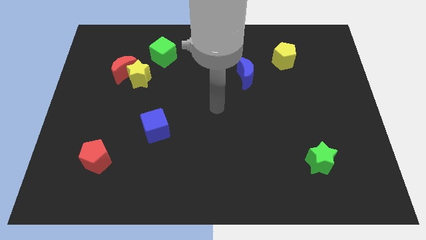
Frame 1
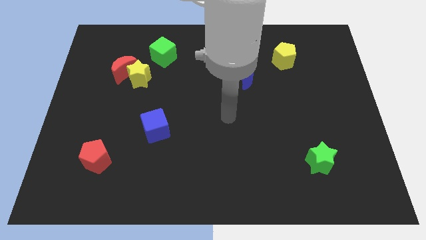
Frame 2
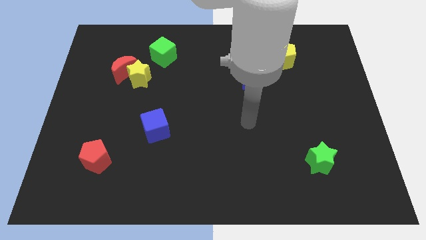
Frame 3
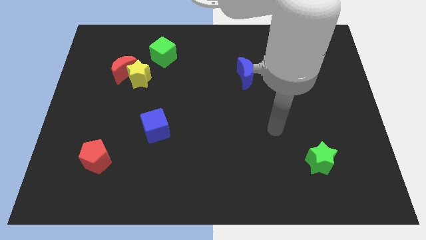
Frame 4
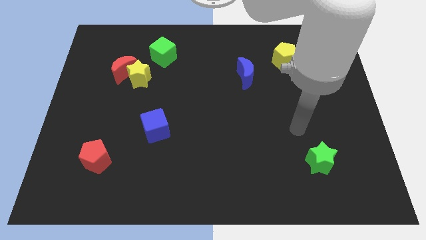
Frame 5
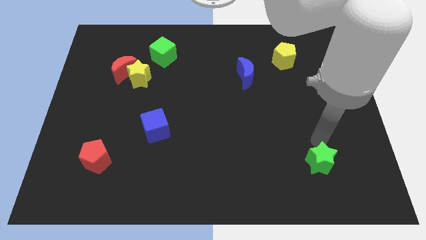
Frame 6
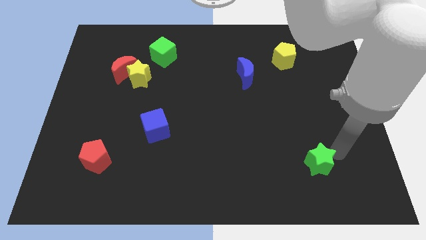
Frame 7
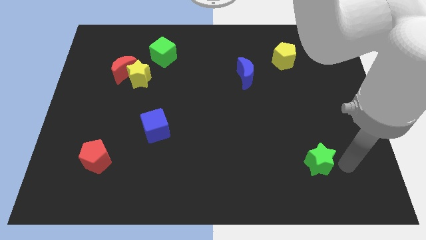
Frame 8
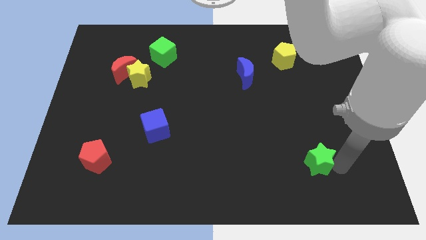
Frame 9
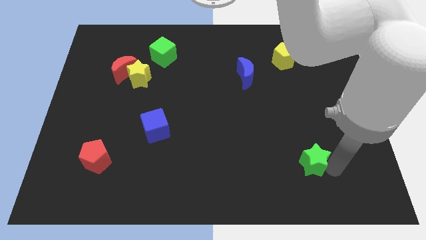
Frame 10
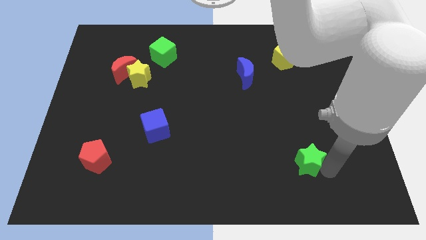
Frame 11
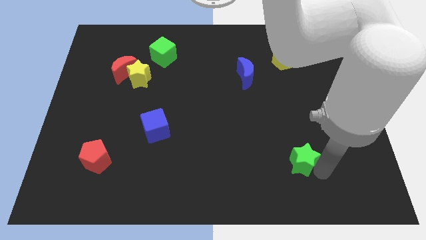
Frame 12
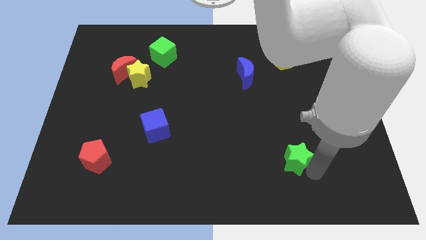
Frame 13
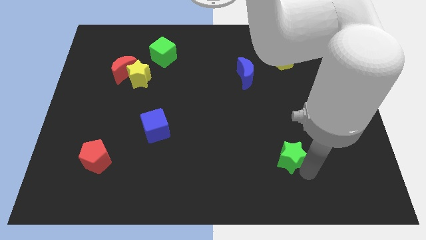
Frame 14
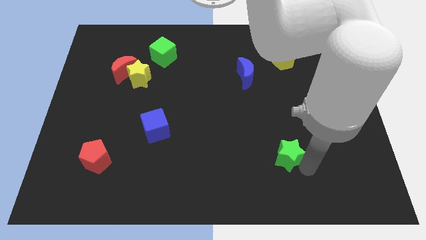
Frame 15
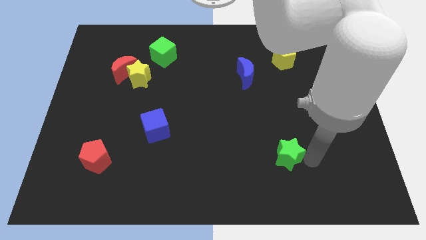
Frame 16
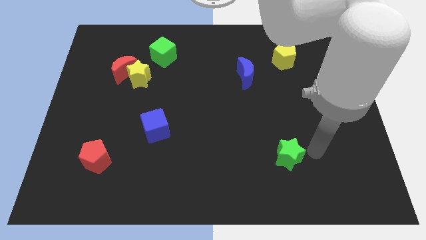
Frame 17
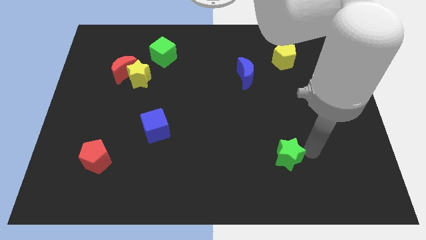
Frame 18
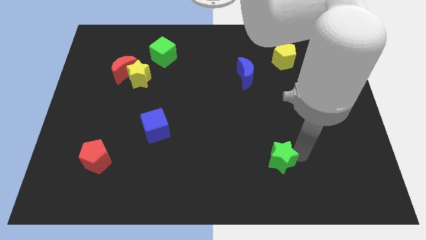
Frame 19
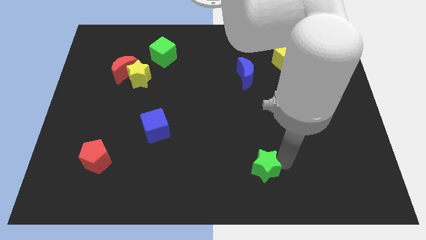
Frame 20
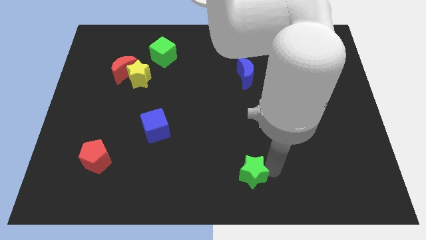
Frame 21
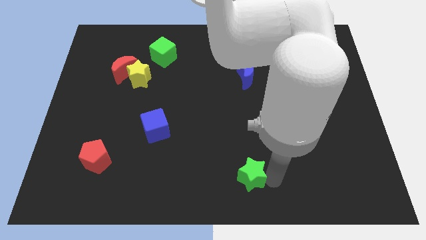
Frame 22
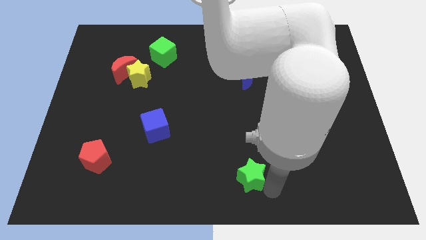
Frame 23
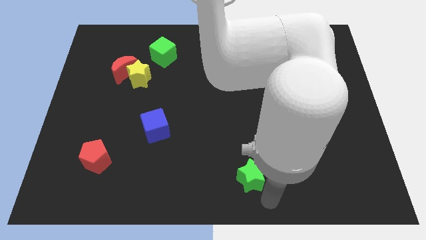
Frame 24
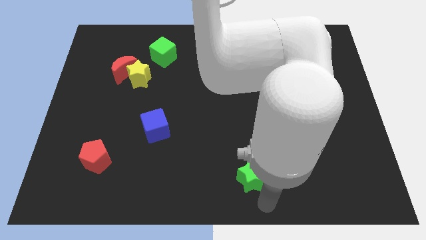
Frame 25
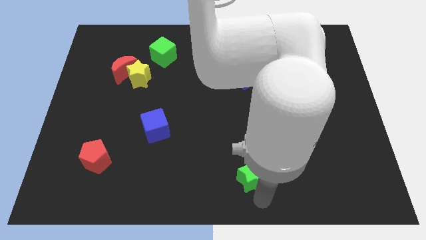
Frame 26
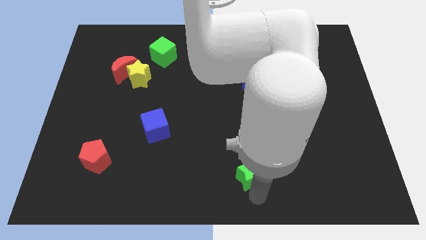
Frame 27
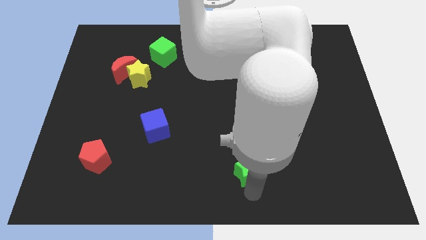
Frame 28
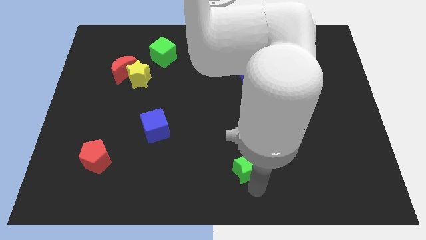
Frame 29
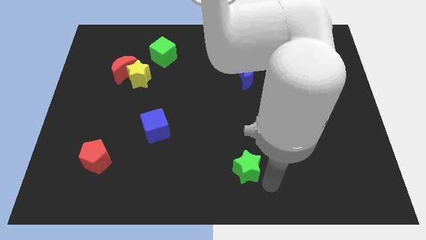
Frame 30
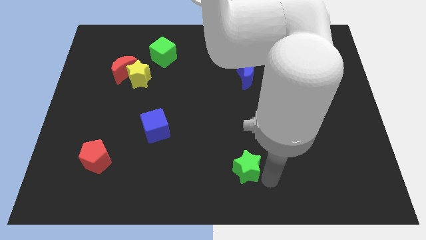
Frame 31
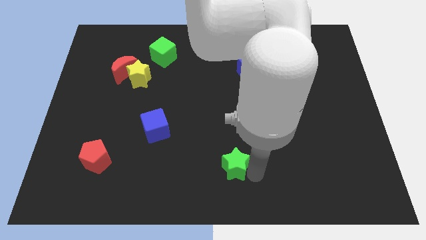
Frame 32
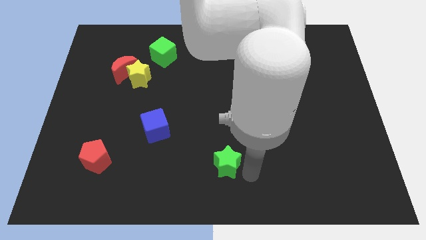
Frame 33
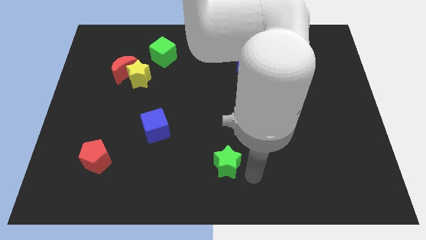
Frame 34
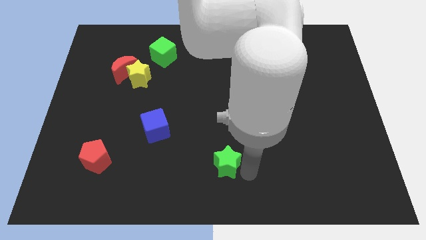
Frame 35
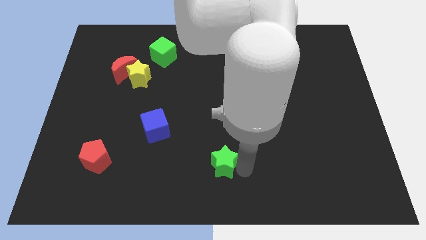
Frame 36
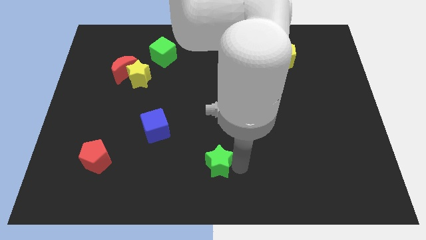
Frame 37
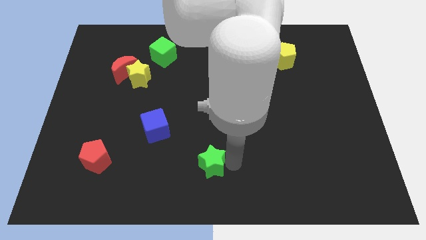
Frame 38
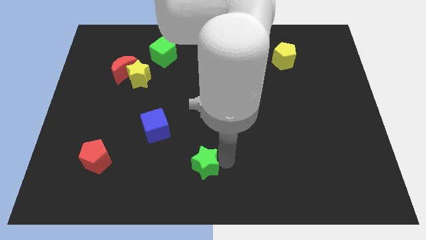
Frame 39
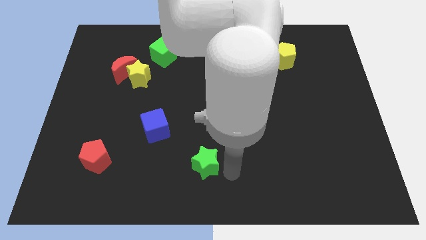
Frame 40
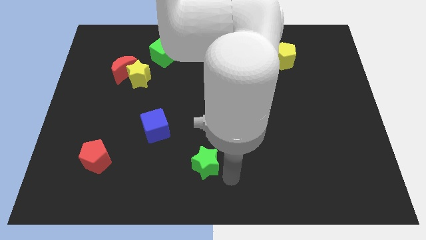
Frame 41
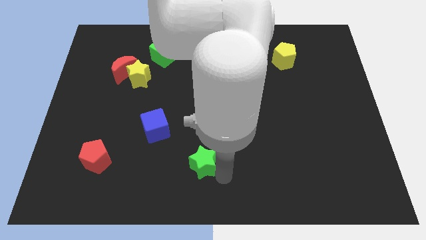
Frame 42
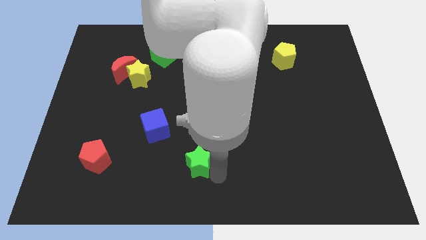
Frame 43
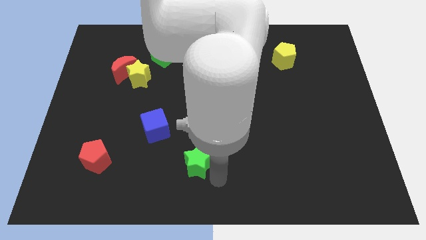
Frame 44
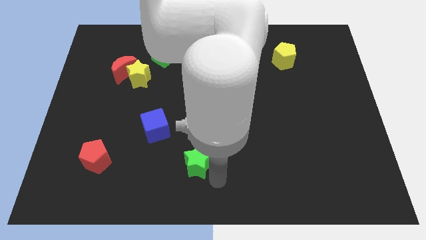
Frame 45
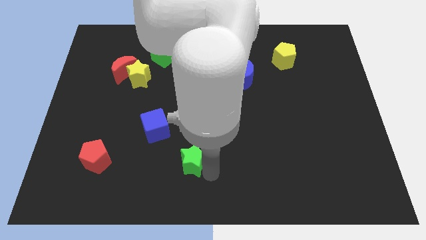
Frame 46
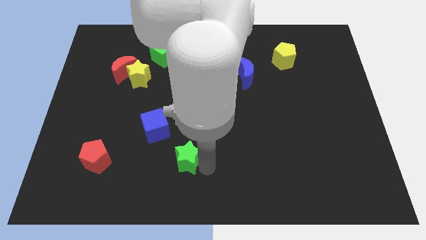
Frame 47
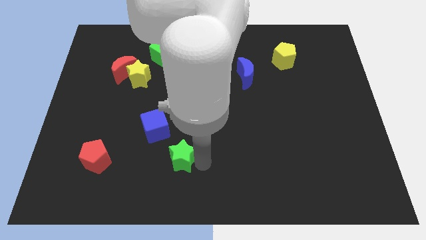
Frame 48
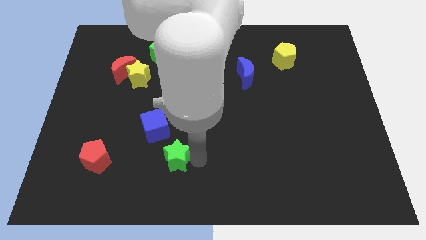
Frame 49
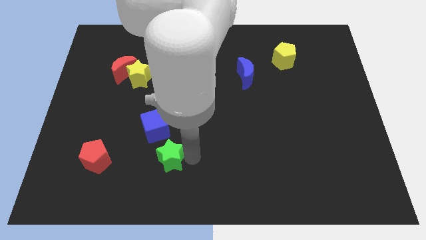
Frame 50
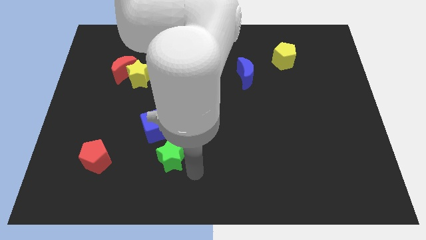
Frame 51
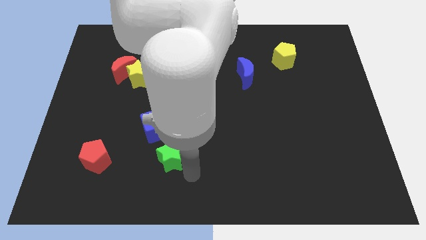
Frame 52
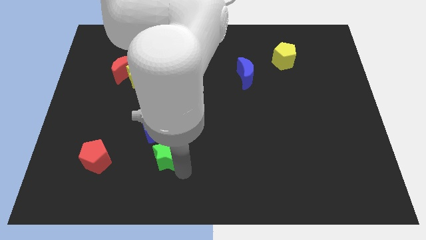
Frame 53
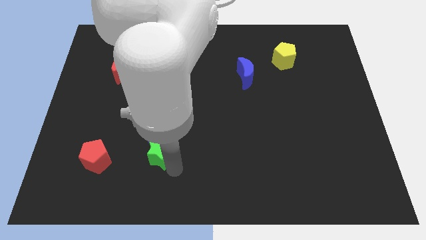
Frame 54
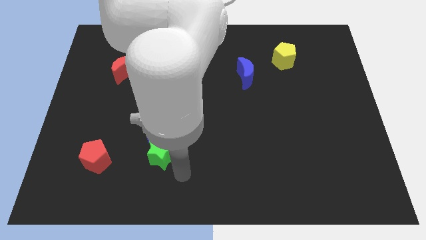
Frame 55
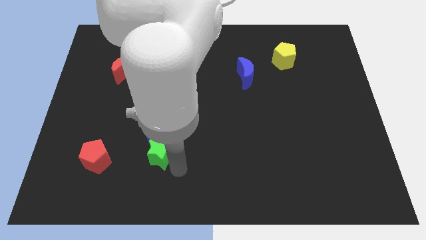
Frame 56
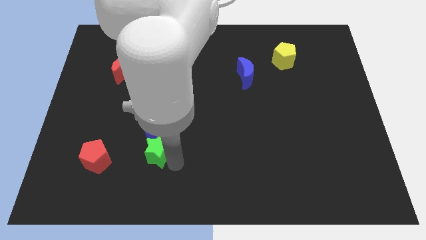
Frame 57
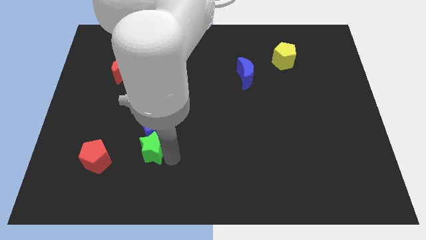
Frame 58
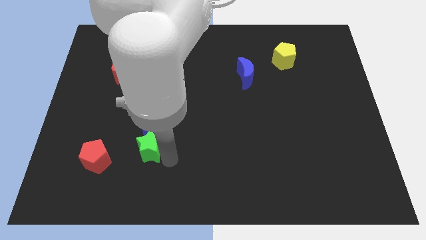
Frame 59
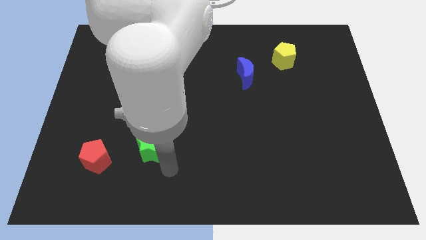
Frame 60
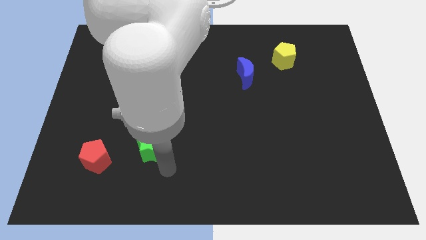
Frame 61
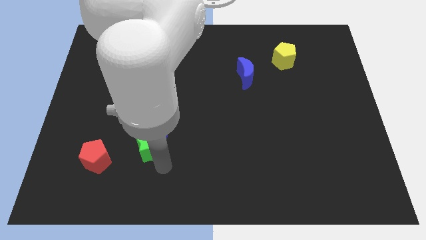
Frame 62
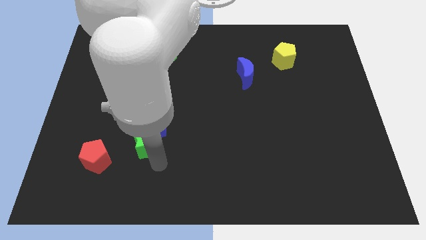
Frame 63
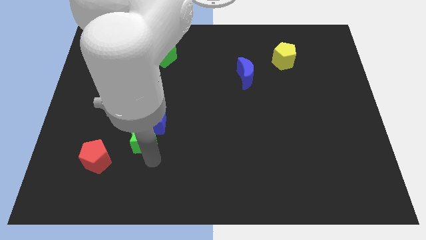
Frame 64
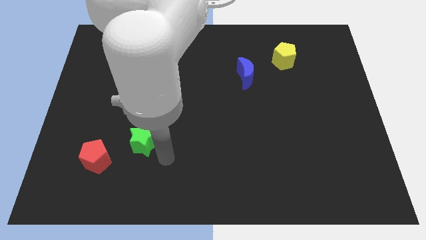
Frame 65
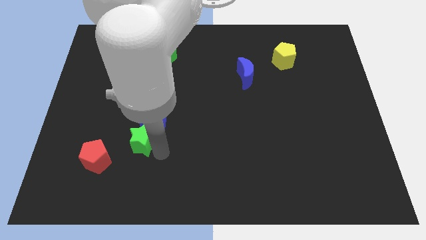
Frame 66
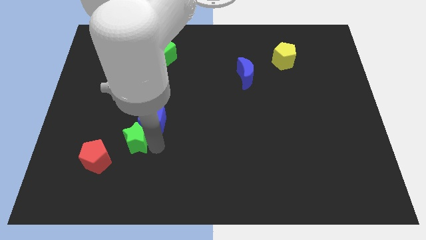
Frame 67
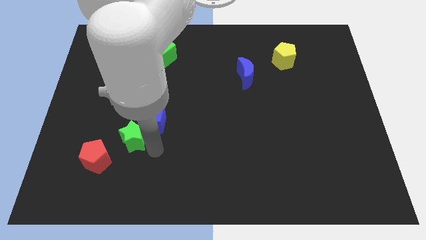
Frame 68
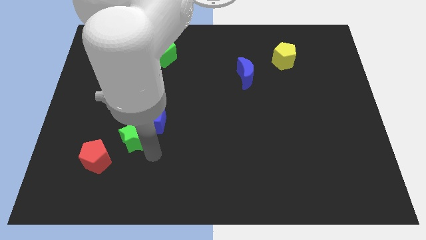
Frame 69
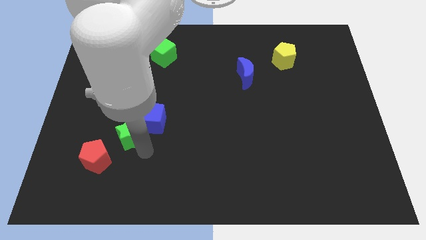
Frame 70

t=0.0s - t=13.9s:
slide the green star to the left of the blue cube
